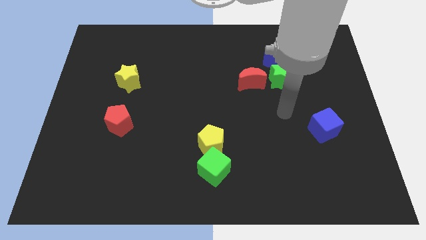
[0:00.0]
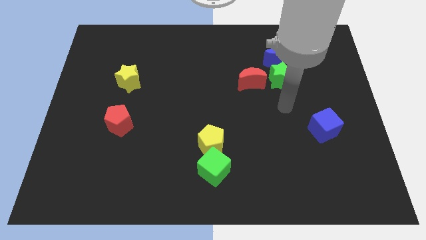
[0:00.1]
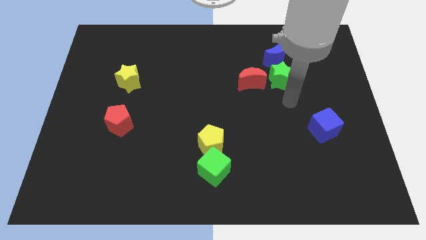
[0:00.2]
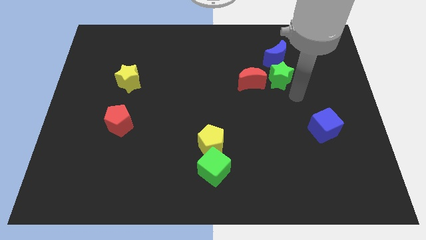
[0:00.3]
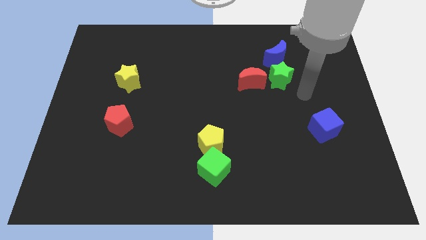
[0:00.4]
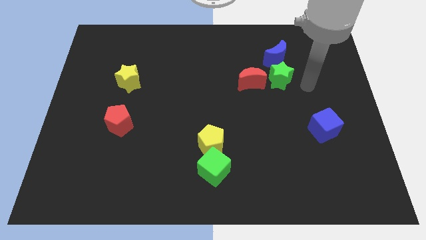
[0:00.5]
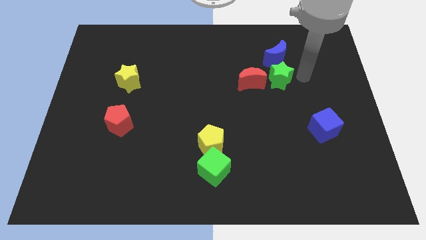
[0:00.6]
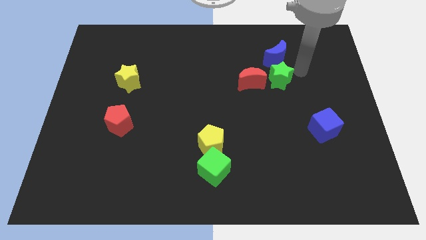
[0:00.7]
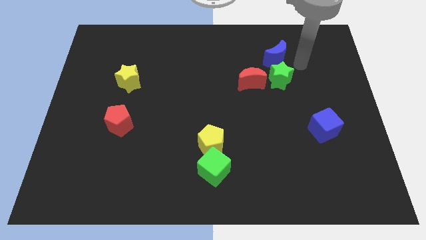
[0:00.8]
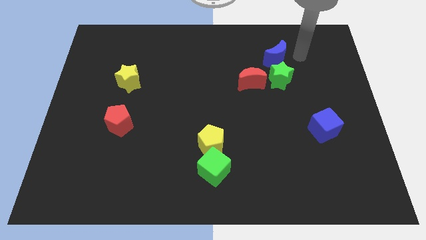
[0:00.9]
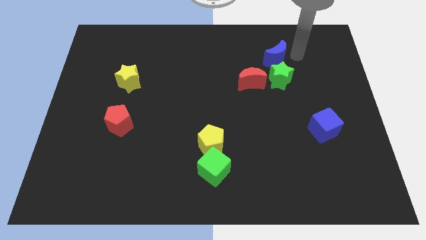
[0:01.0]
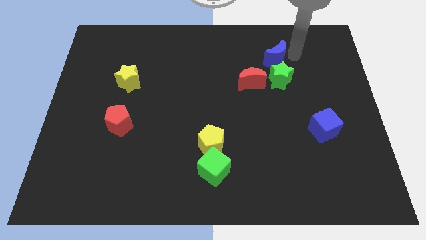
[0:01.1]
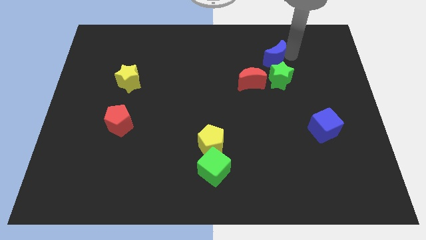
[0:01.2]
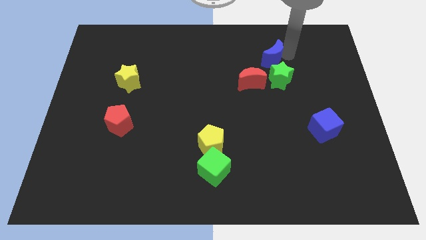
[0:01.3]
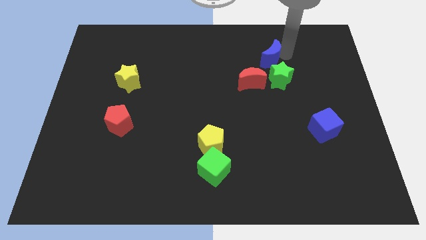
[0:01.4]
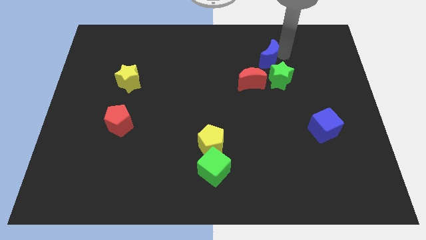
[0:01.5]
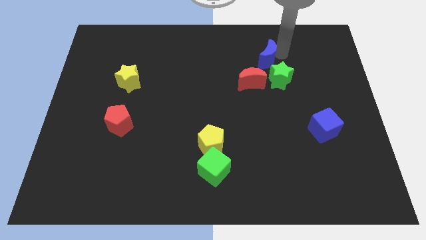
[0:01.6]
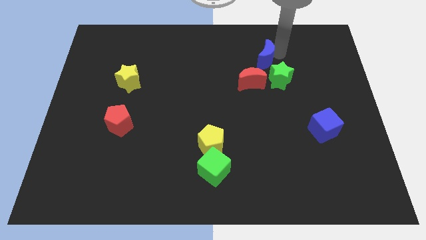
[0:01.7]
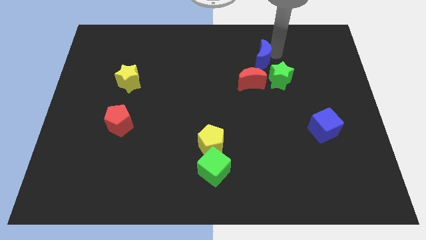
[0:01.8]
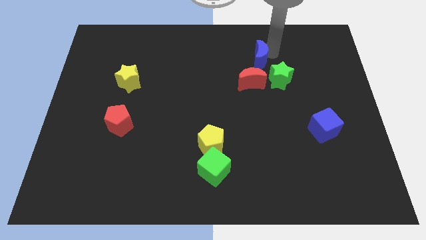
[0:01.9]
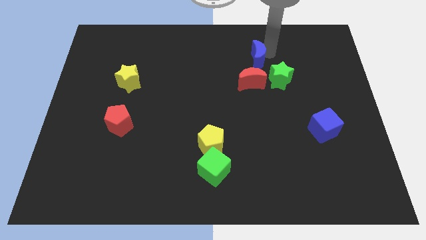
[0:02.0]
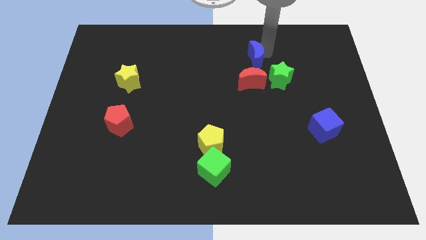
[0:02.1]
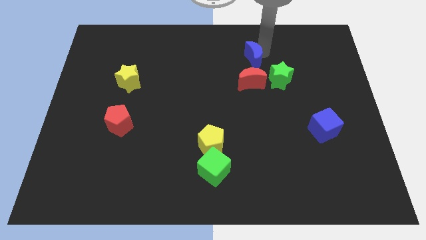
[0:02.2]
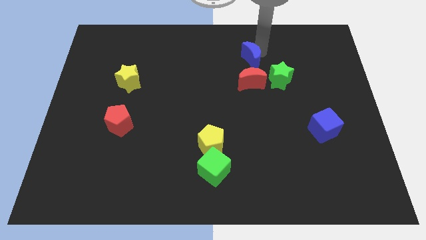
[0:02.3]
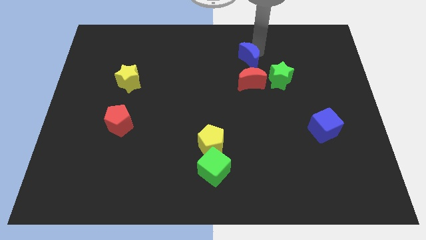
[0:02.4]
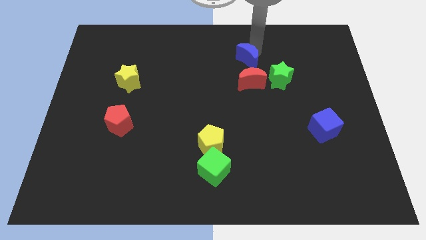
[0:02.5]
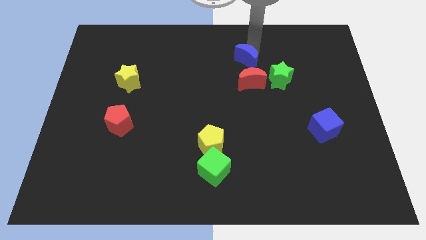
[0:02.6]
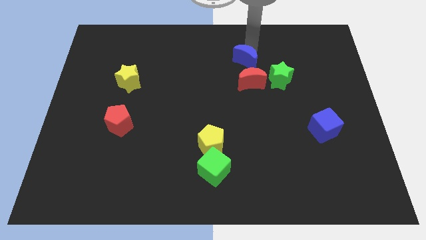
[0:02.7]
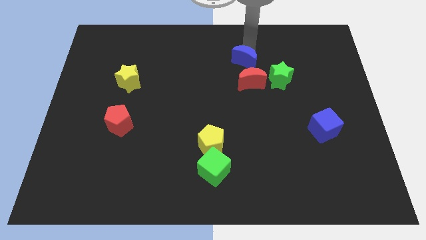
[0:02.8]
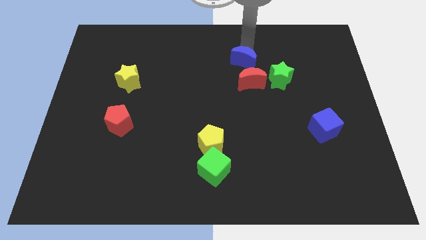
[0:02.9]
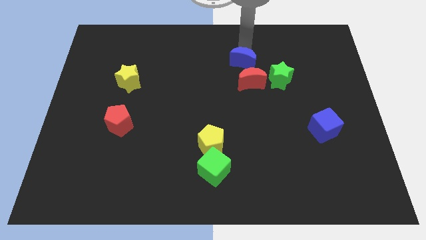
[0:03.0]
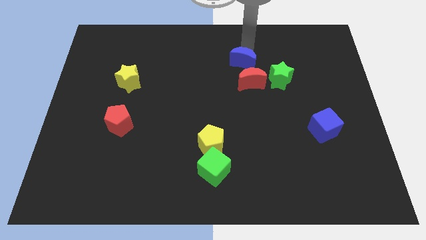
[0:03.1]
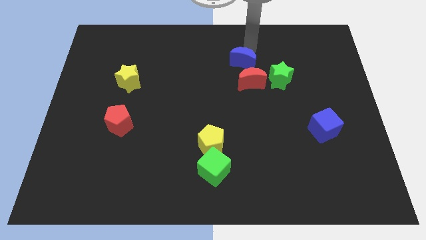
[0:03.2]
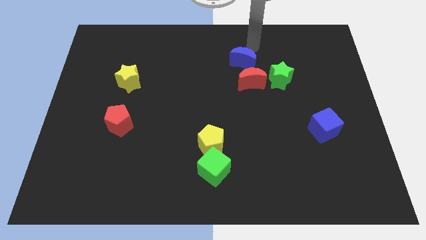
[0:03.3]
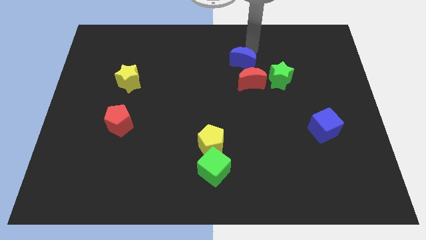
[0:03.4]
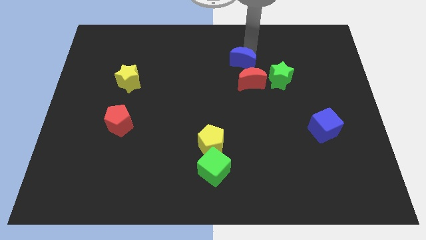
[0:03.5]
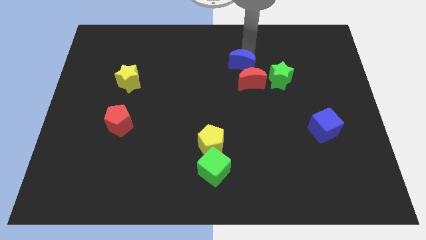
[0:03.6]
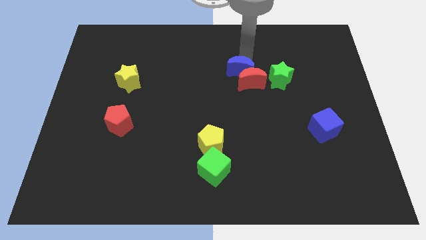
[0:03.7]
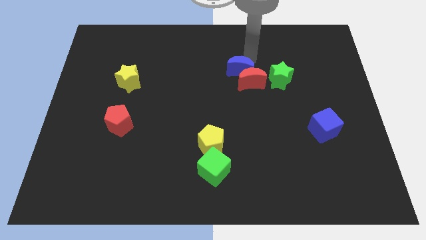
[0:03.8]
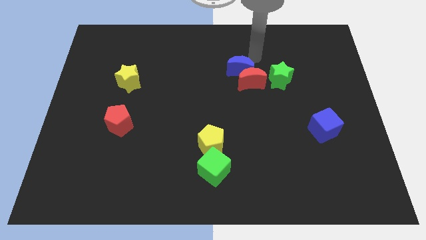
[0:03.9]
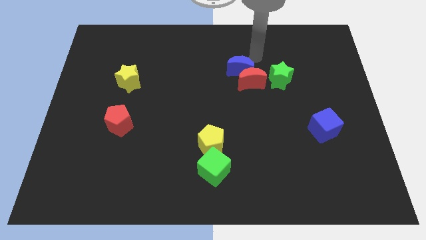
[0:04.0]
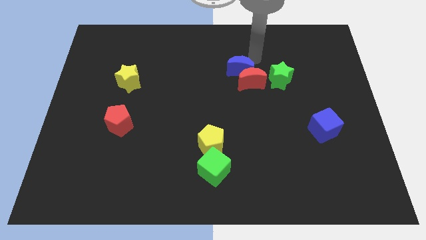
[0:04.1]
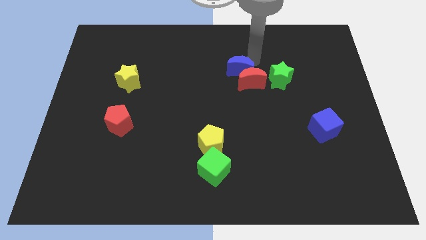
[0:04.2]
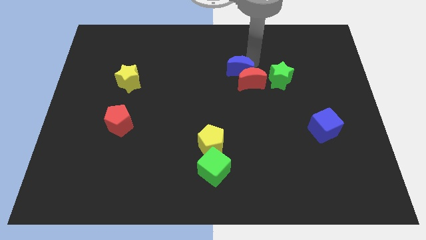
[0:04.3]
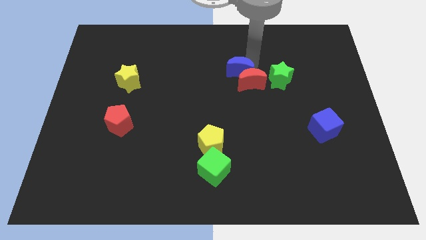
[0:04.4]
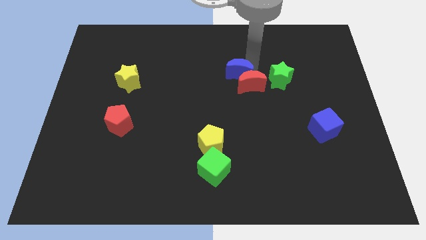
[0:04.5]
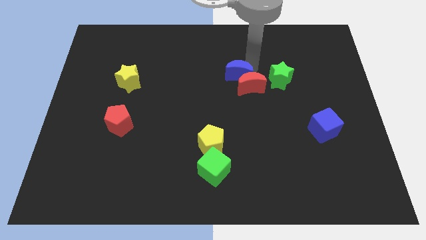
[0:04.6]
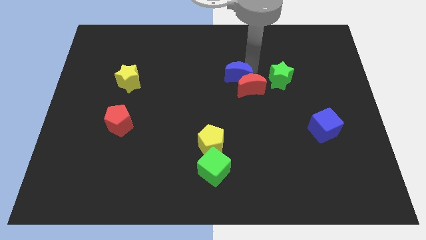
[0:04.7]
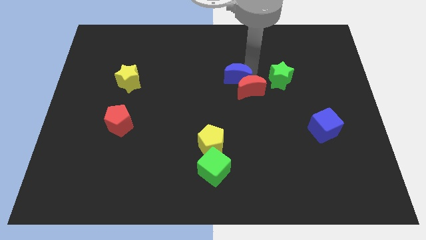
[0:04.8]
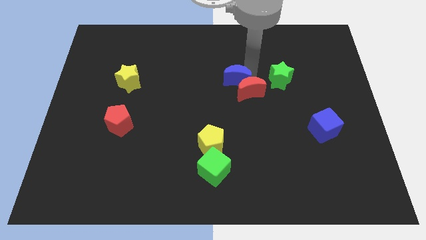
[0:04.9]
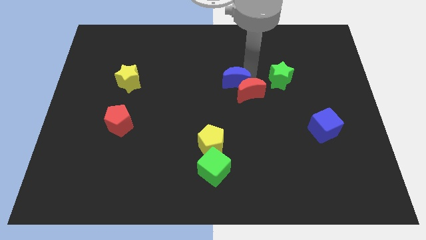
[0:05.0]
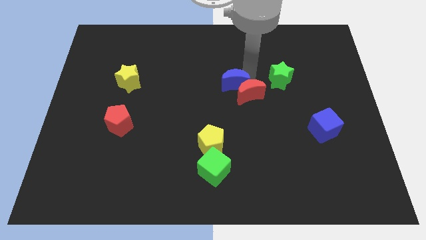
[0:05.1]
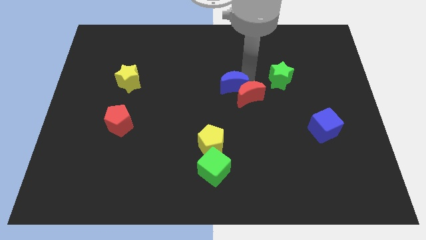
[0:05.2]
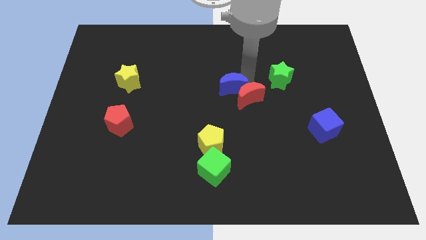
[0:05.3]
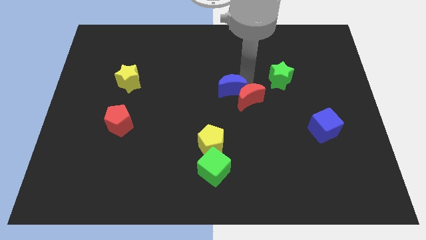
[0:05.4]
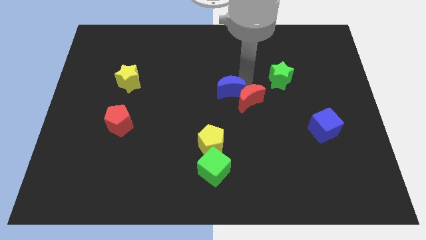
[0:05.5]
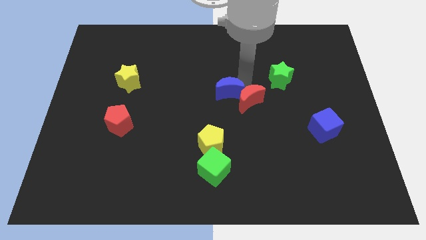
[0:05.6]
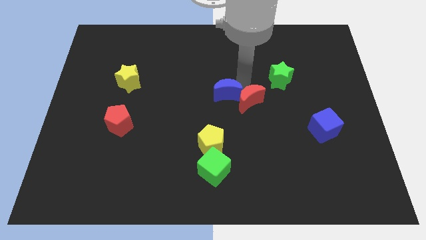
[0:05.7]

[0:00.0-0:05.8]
put the blue moon above the yellow pentagon
